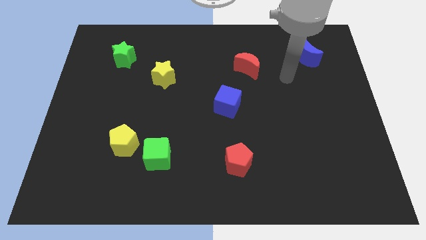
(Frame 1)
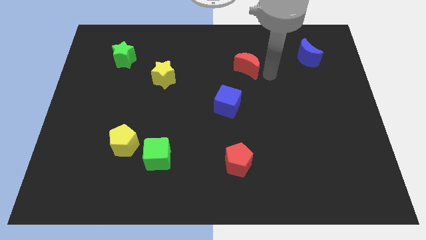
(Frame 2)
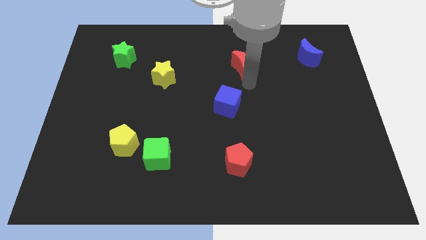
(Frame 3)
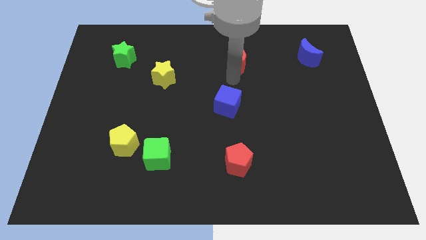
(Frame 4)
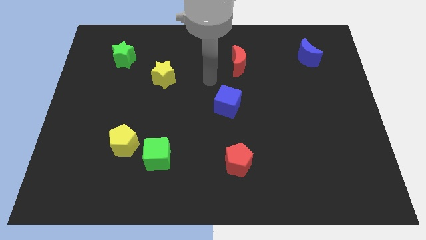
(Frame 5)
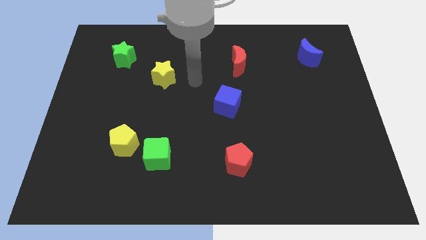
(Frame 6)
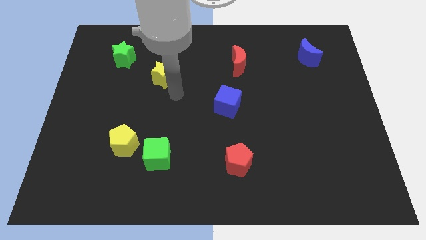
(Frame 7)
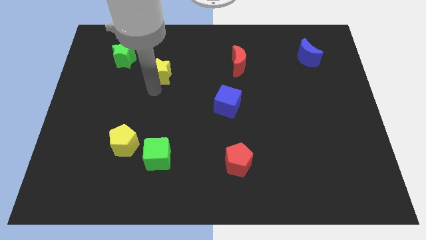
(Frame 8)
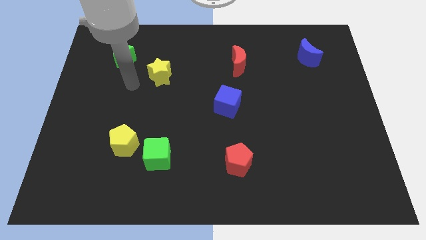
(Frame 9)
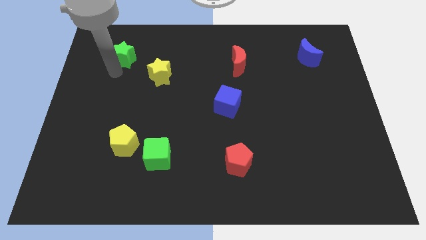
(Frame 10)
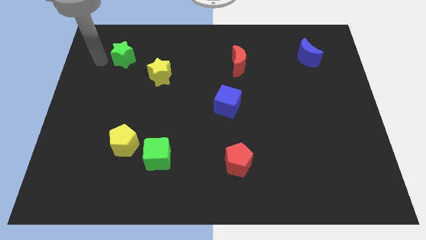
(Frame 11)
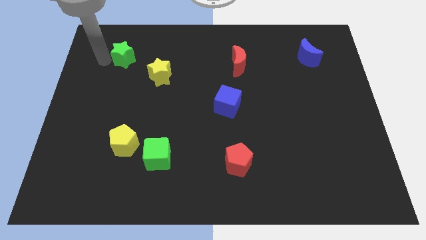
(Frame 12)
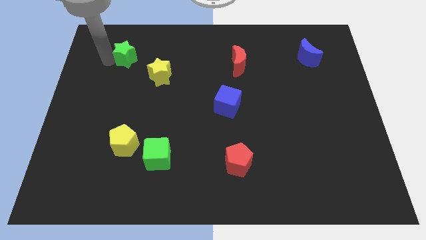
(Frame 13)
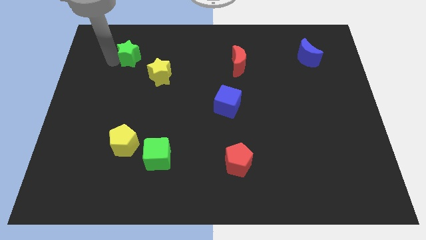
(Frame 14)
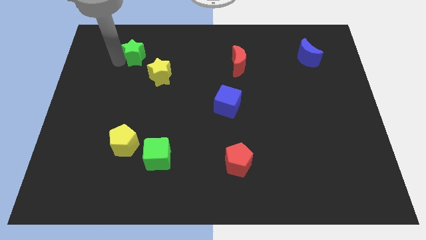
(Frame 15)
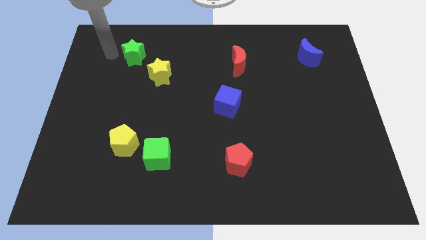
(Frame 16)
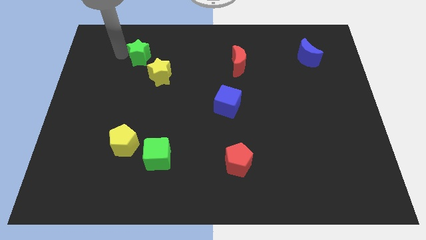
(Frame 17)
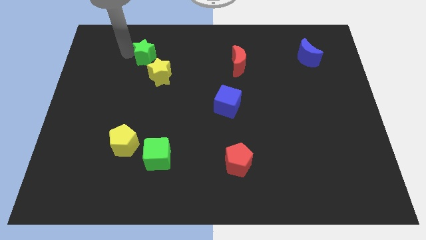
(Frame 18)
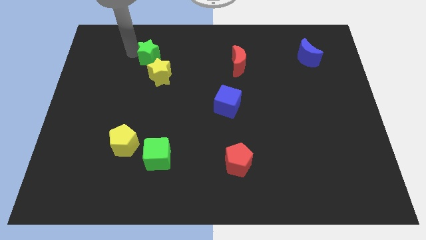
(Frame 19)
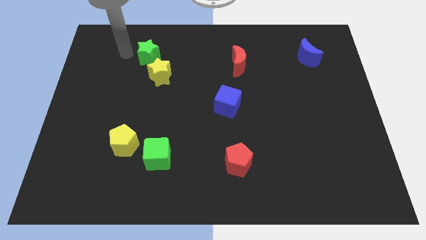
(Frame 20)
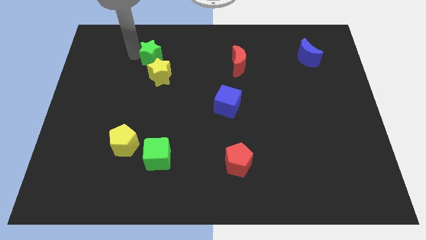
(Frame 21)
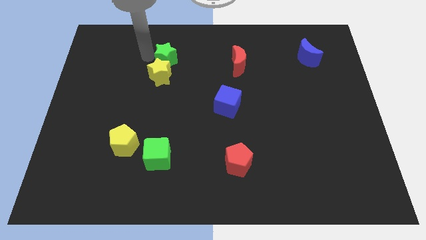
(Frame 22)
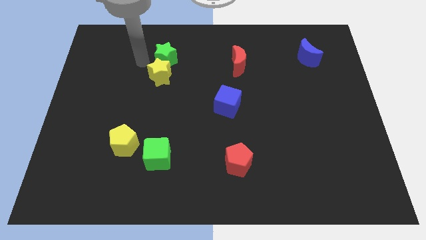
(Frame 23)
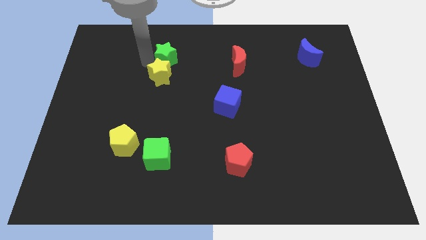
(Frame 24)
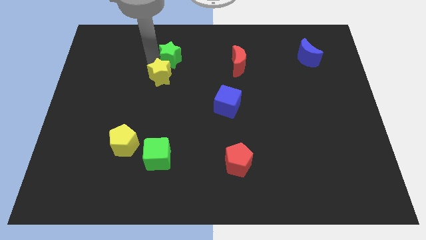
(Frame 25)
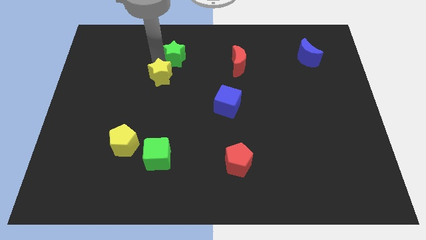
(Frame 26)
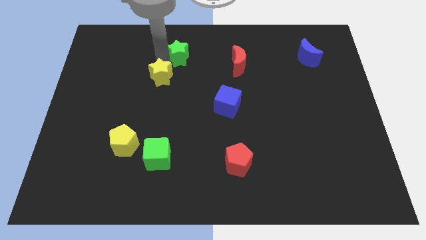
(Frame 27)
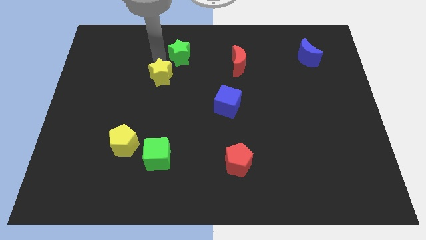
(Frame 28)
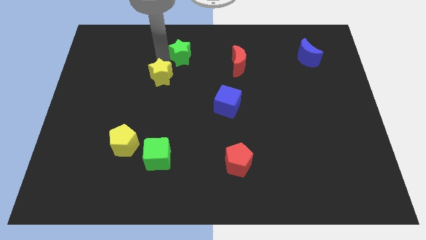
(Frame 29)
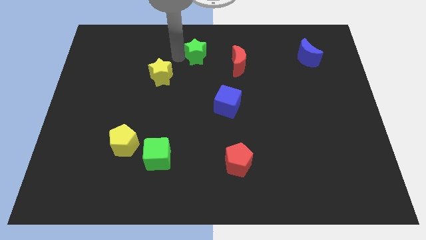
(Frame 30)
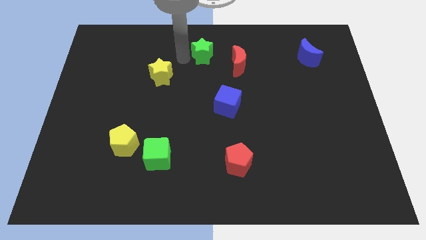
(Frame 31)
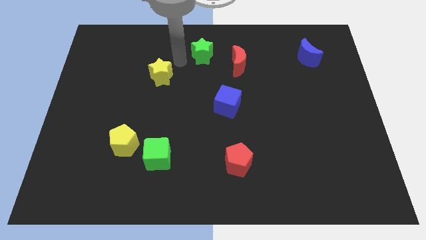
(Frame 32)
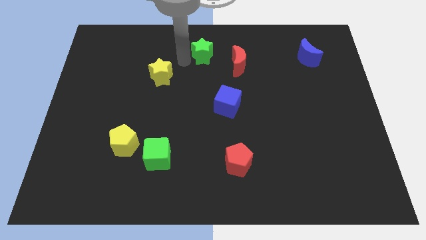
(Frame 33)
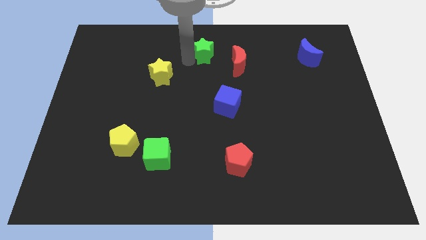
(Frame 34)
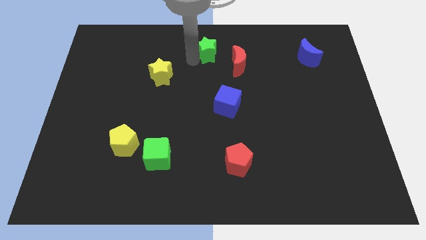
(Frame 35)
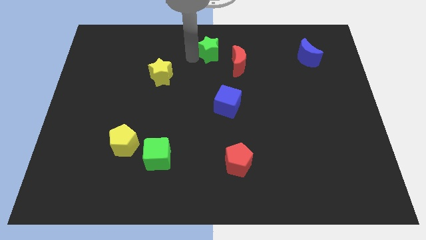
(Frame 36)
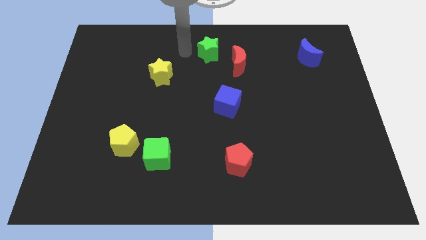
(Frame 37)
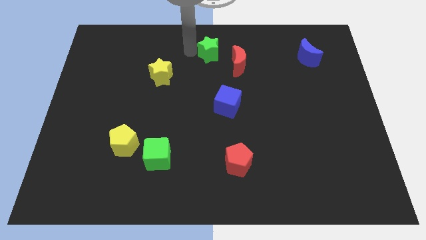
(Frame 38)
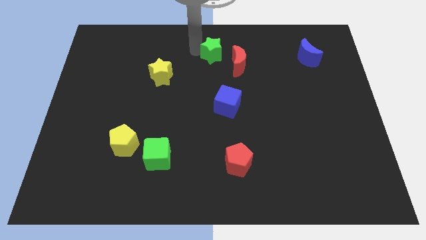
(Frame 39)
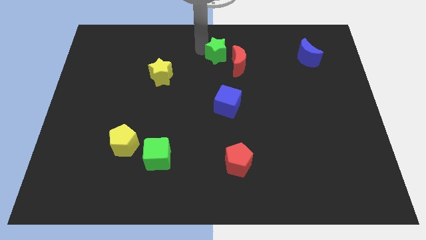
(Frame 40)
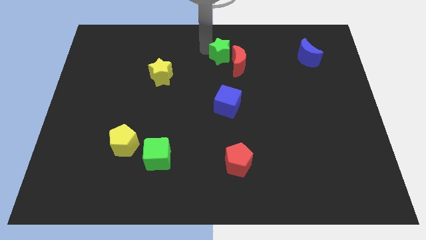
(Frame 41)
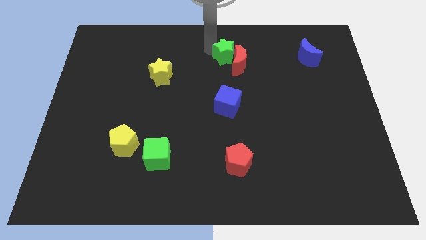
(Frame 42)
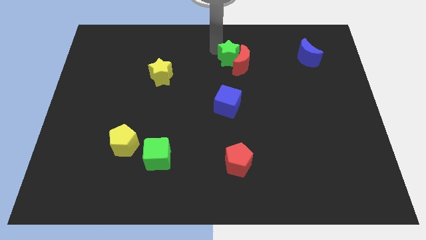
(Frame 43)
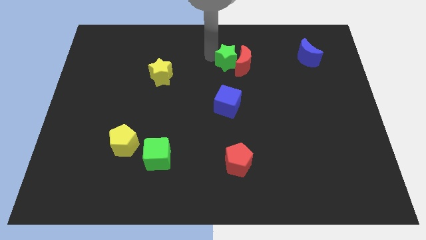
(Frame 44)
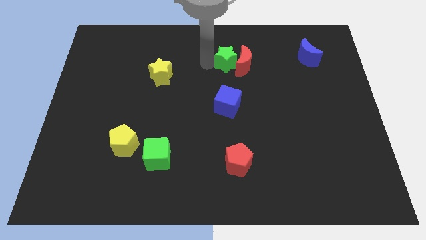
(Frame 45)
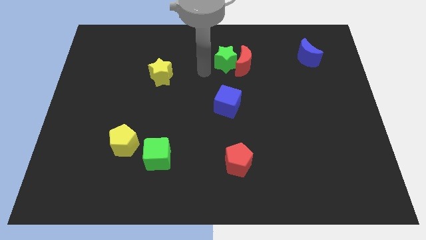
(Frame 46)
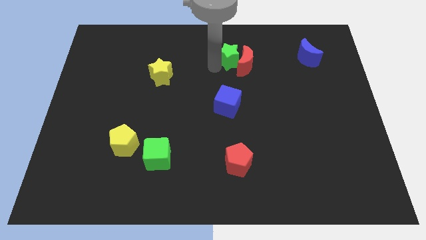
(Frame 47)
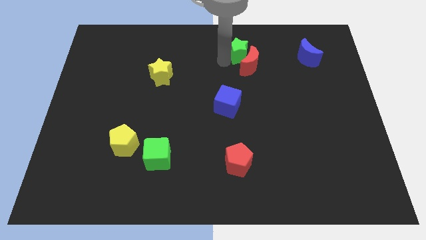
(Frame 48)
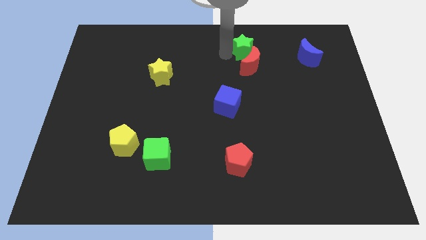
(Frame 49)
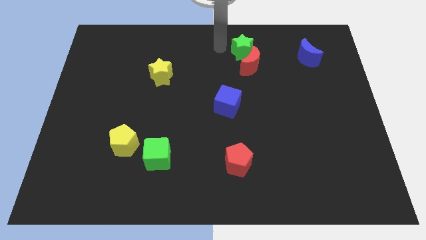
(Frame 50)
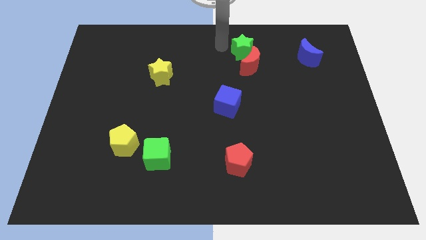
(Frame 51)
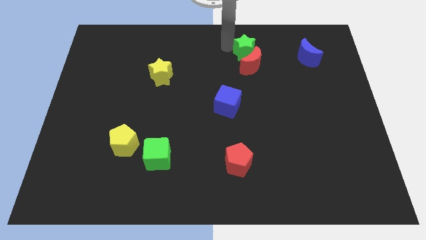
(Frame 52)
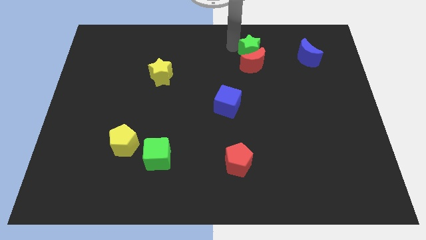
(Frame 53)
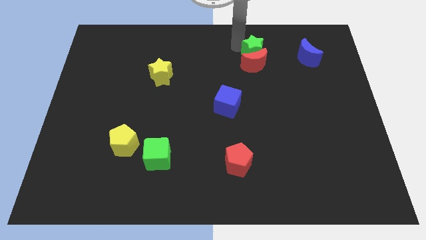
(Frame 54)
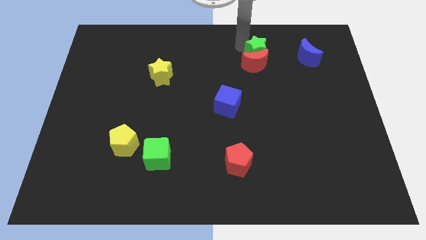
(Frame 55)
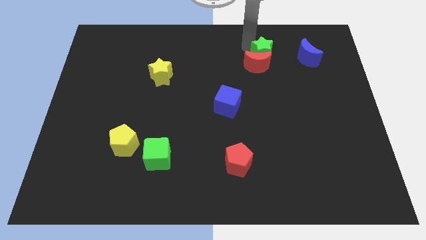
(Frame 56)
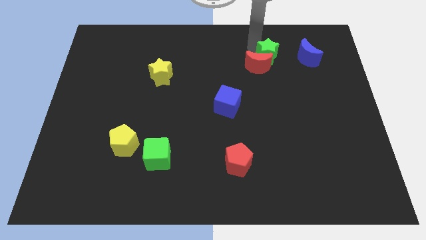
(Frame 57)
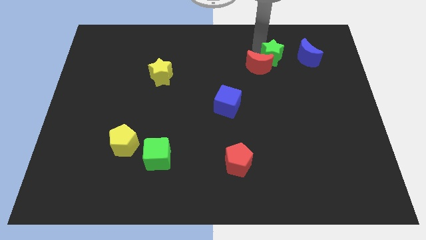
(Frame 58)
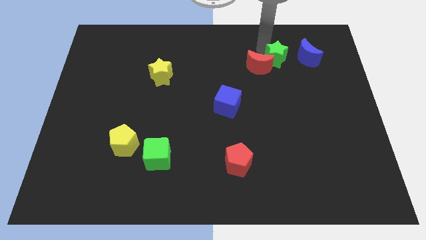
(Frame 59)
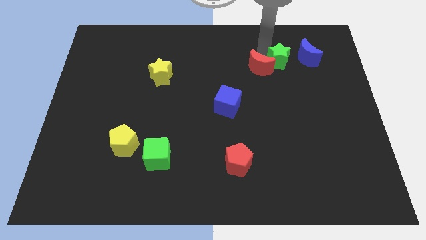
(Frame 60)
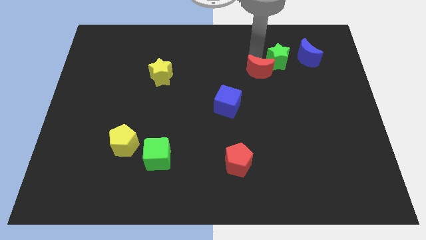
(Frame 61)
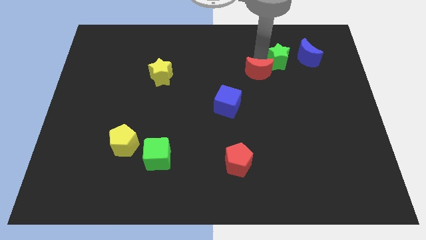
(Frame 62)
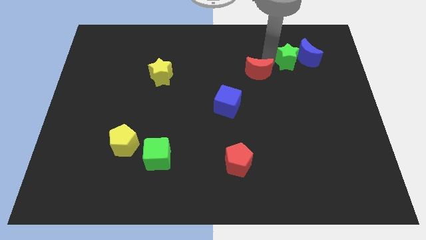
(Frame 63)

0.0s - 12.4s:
slide the green star towards the blue moon

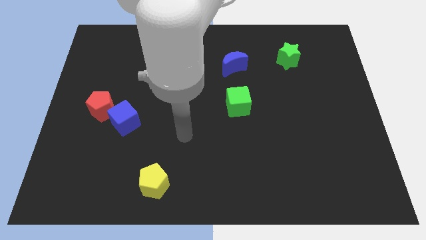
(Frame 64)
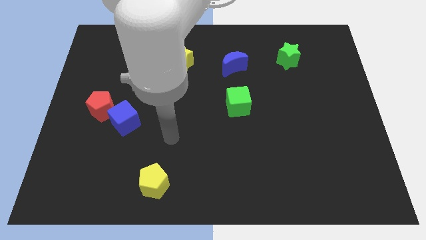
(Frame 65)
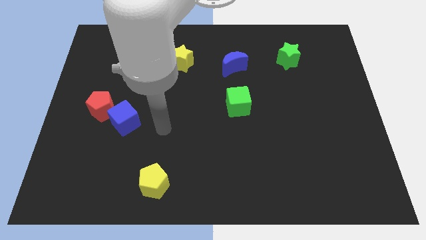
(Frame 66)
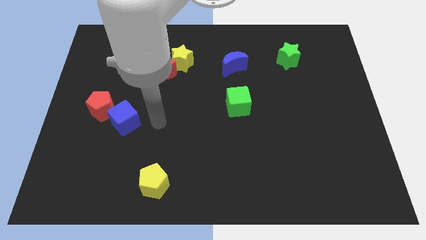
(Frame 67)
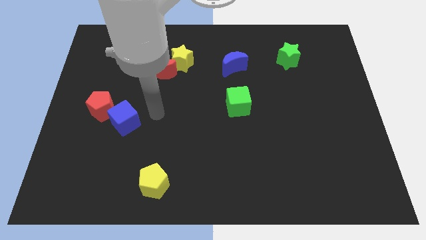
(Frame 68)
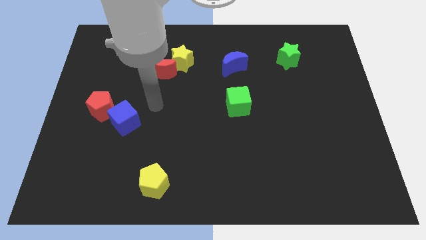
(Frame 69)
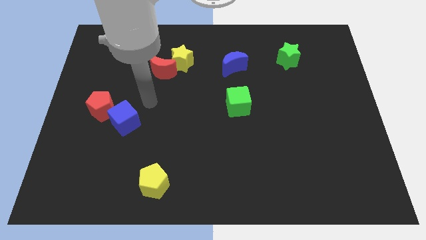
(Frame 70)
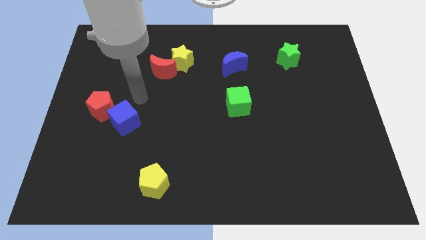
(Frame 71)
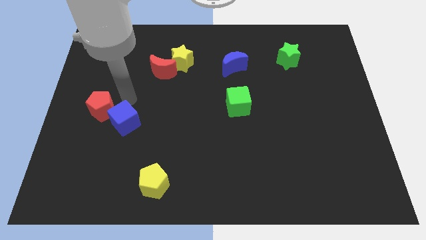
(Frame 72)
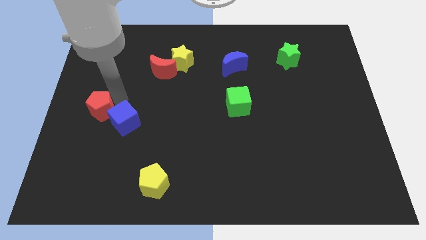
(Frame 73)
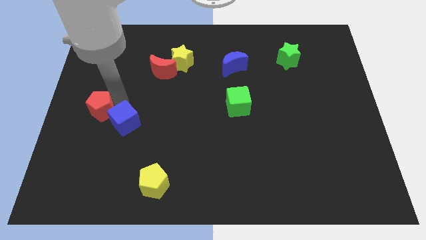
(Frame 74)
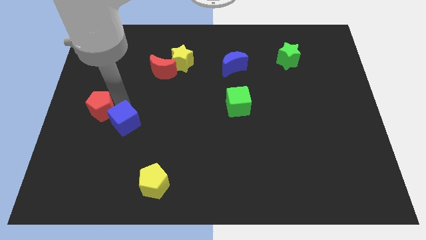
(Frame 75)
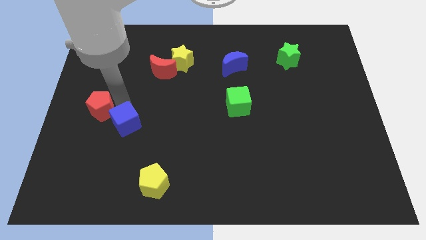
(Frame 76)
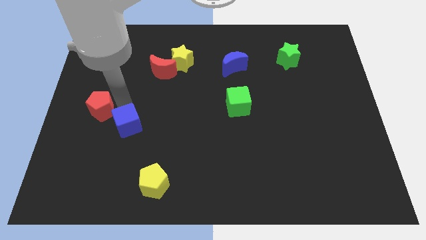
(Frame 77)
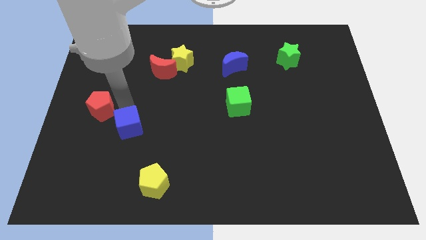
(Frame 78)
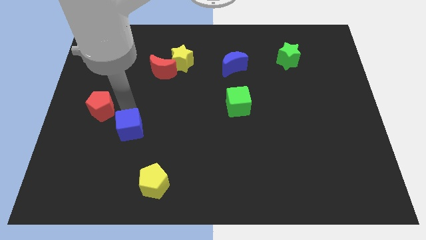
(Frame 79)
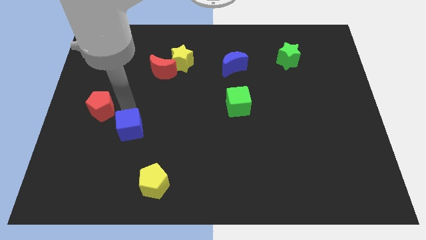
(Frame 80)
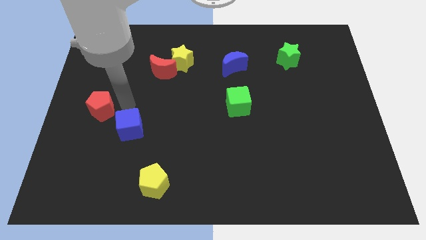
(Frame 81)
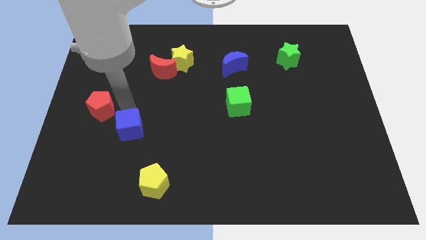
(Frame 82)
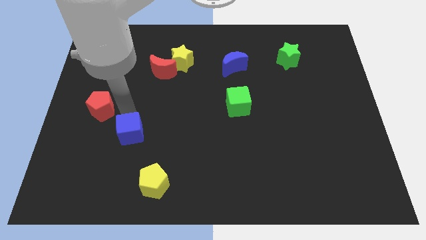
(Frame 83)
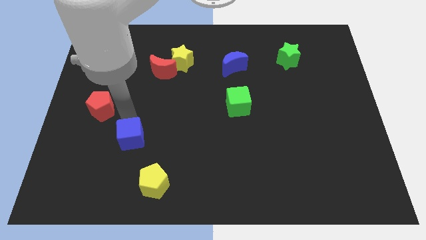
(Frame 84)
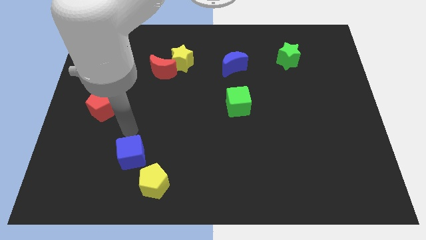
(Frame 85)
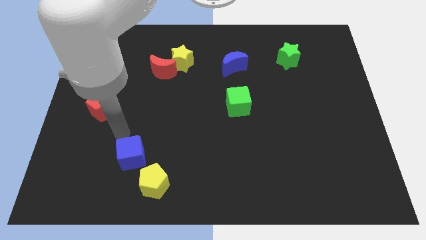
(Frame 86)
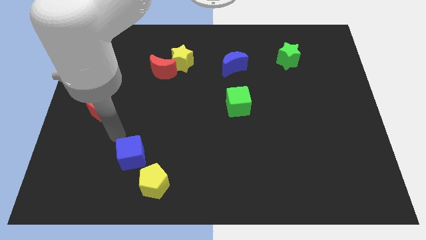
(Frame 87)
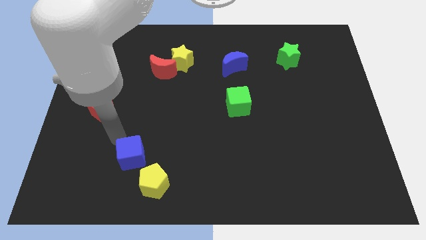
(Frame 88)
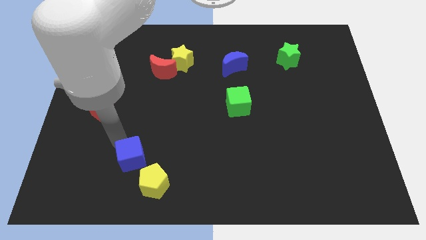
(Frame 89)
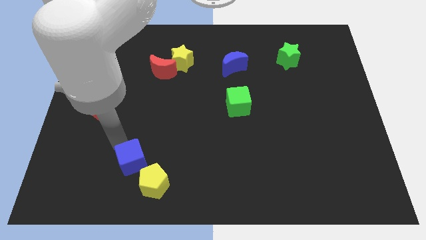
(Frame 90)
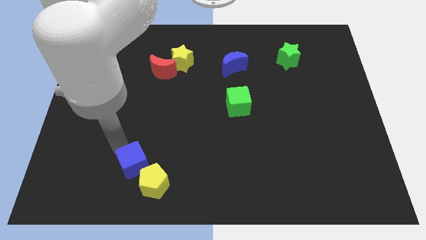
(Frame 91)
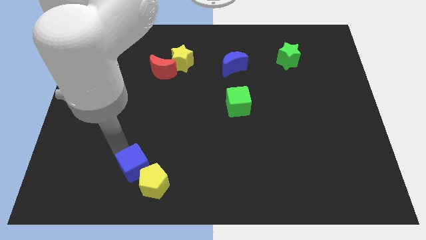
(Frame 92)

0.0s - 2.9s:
move the blue cube close to the yellow pentagon
